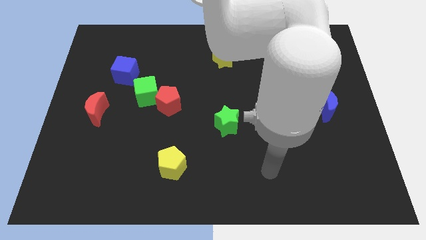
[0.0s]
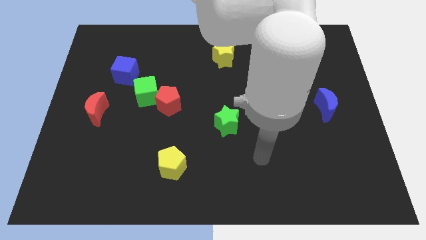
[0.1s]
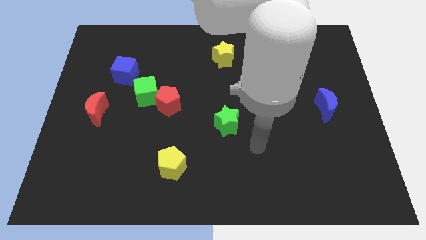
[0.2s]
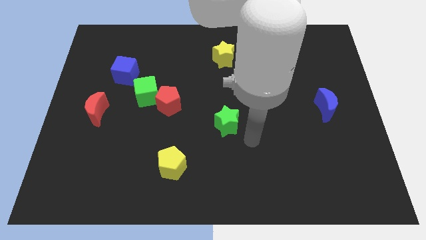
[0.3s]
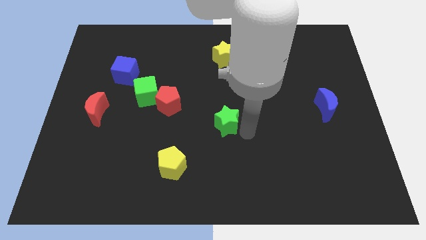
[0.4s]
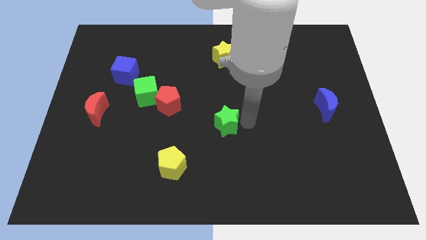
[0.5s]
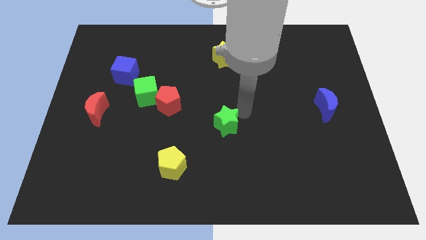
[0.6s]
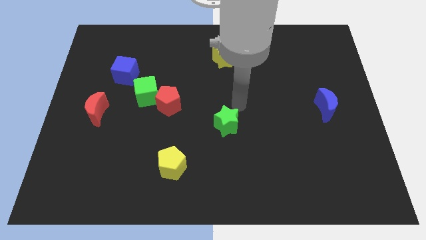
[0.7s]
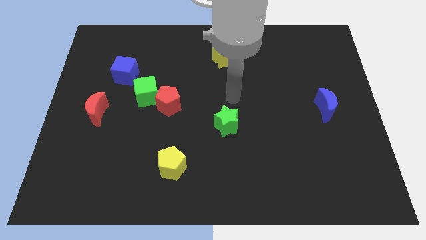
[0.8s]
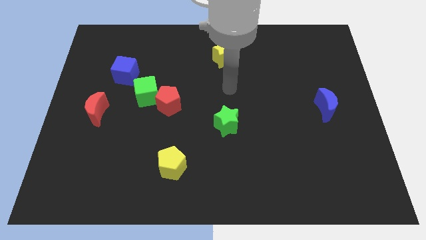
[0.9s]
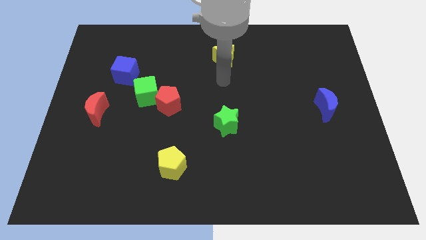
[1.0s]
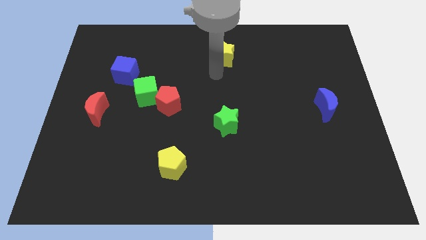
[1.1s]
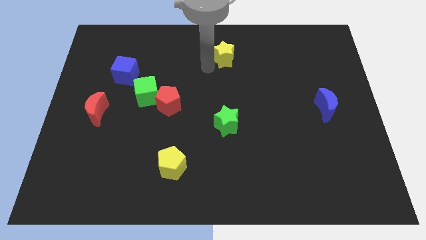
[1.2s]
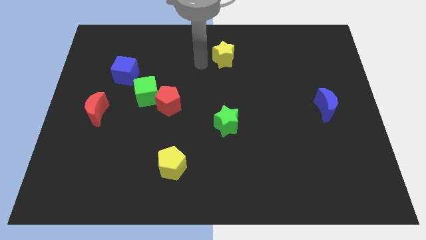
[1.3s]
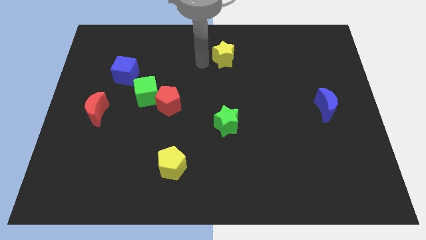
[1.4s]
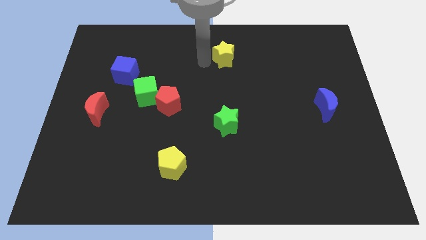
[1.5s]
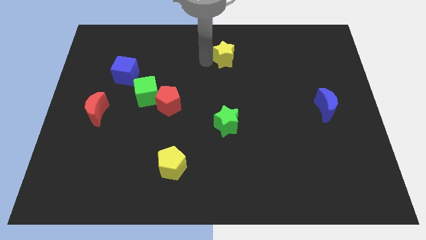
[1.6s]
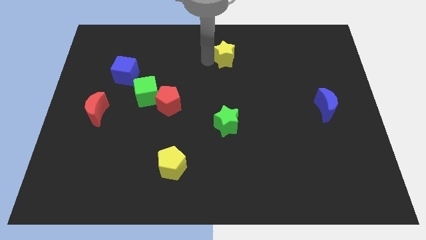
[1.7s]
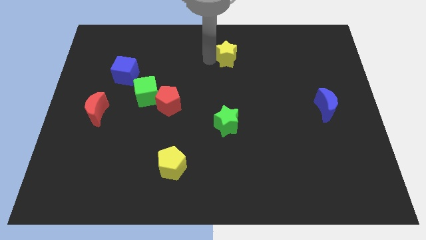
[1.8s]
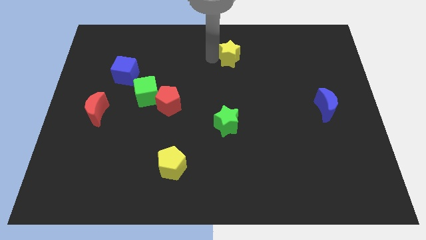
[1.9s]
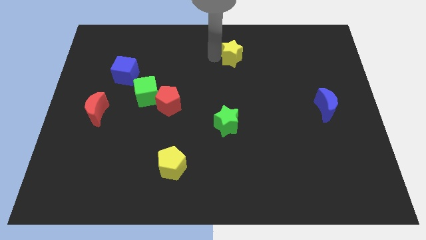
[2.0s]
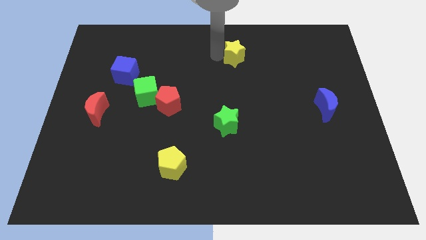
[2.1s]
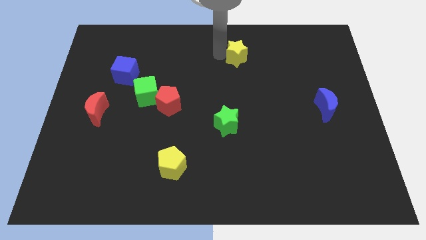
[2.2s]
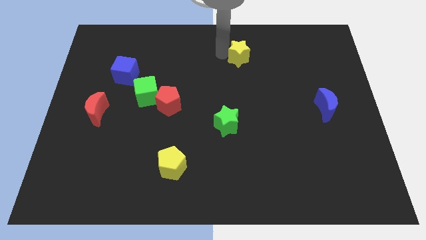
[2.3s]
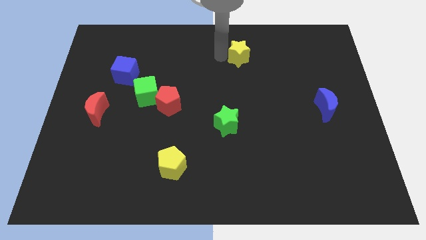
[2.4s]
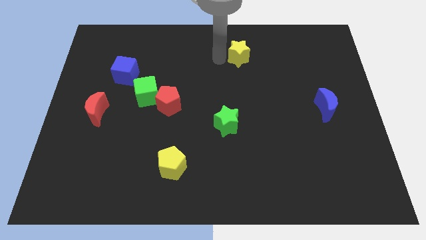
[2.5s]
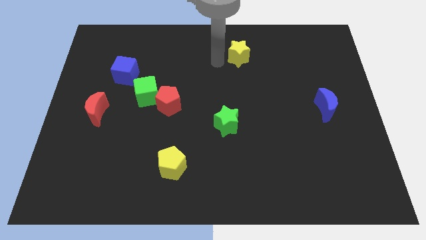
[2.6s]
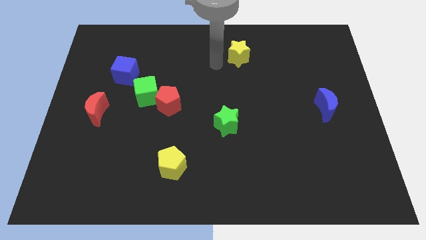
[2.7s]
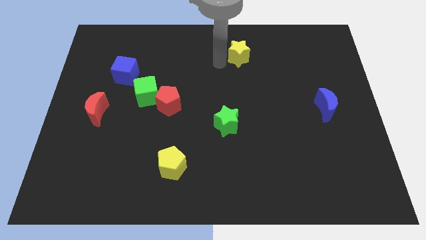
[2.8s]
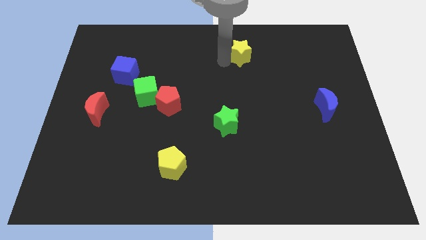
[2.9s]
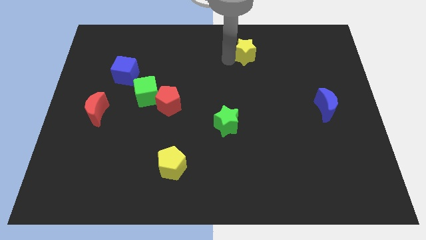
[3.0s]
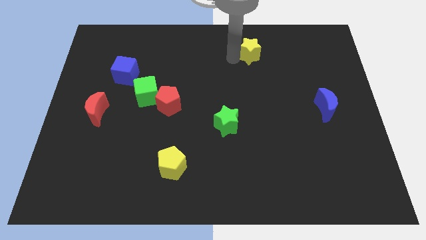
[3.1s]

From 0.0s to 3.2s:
slide the yellow star right somewhat

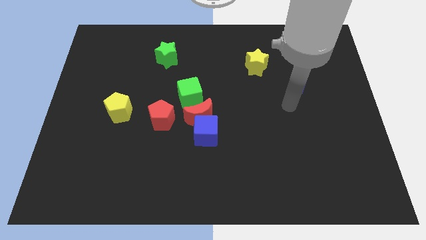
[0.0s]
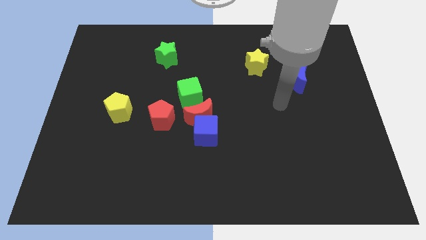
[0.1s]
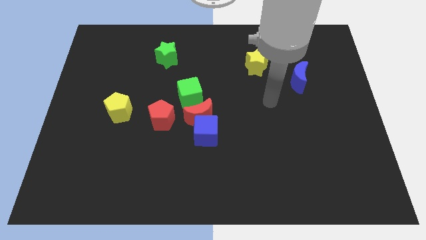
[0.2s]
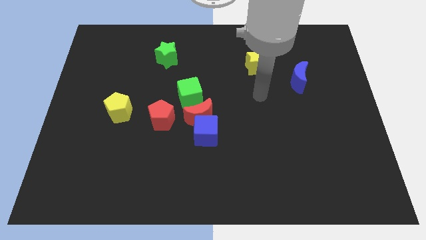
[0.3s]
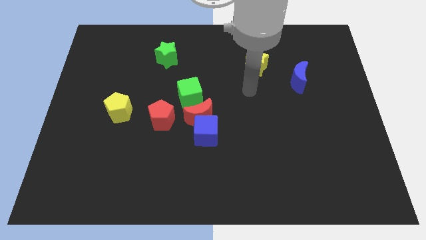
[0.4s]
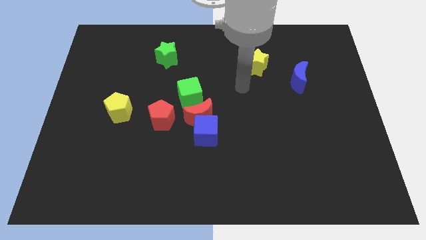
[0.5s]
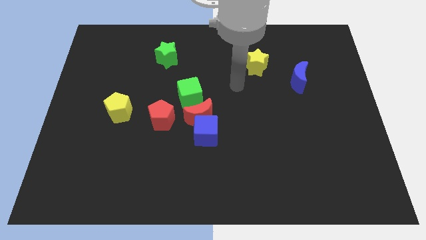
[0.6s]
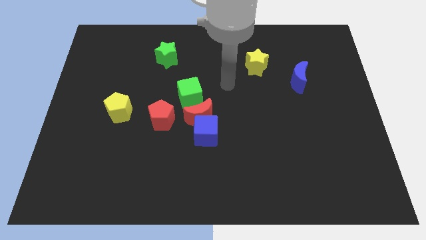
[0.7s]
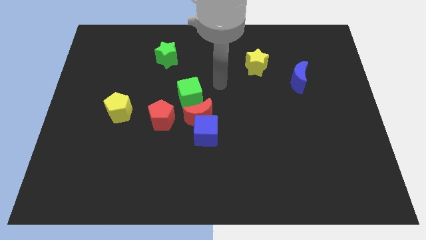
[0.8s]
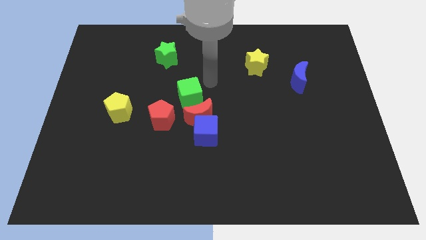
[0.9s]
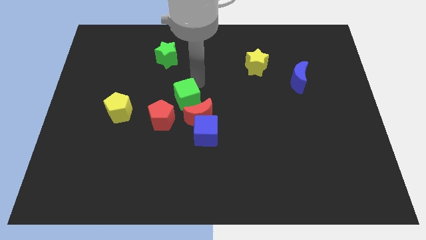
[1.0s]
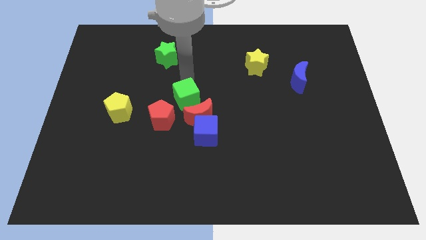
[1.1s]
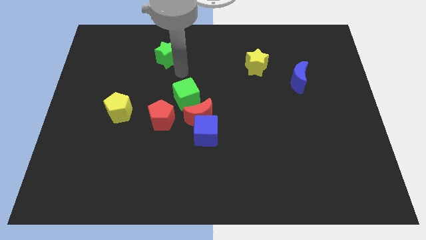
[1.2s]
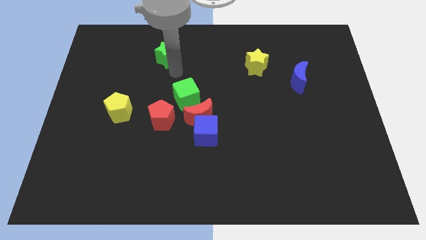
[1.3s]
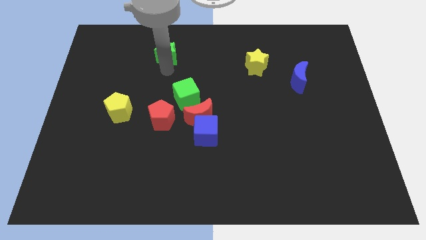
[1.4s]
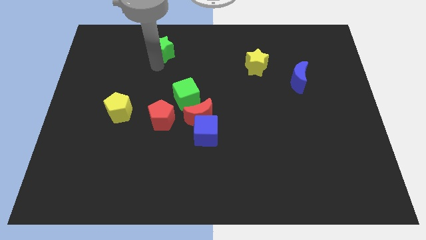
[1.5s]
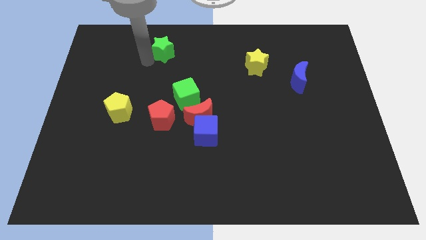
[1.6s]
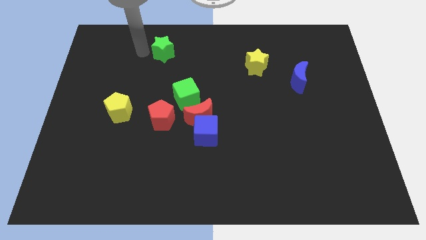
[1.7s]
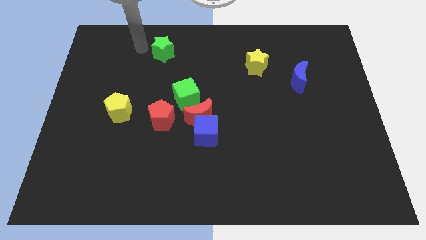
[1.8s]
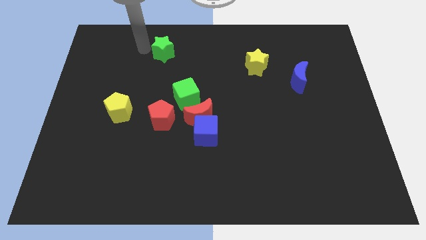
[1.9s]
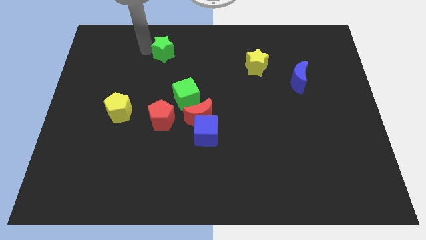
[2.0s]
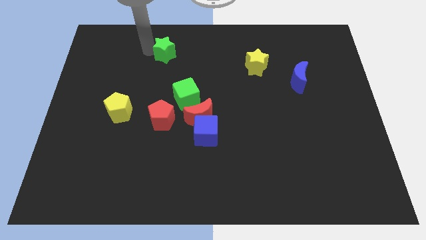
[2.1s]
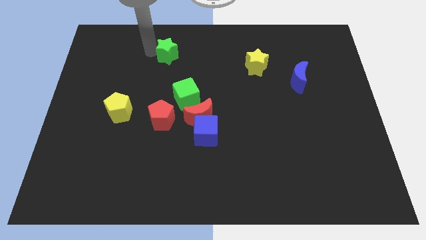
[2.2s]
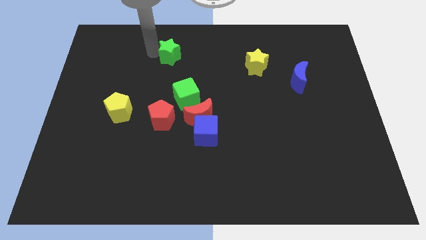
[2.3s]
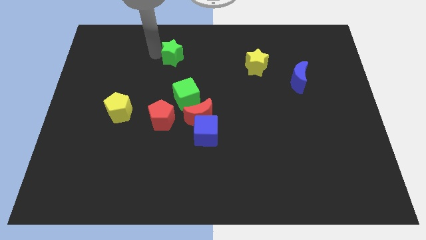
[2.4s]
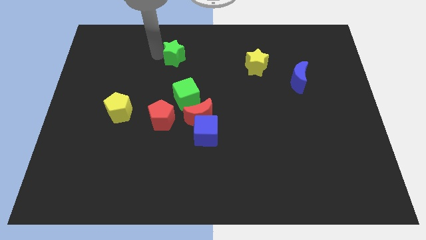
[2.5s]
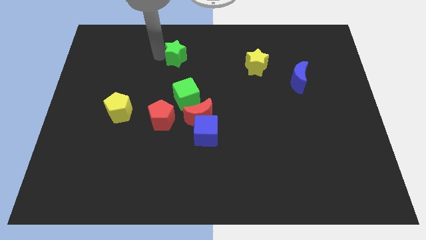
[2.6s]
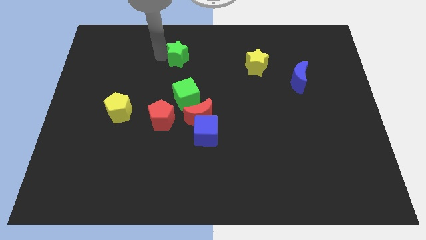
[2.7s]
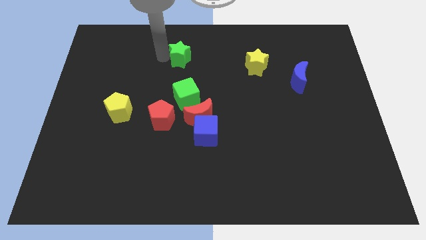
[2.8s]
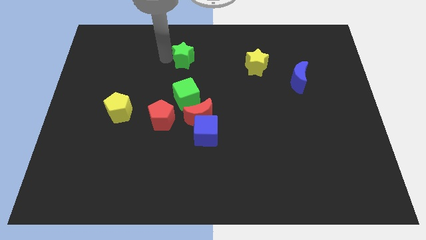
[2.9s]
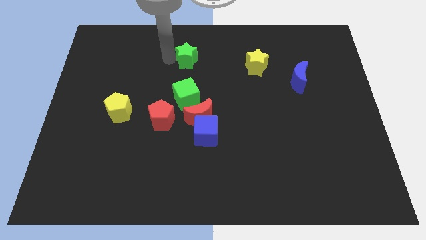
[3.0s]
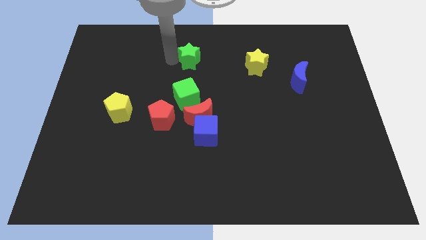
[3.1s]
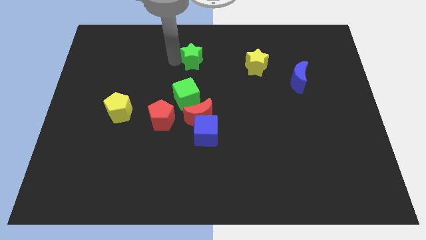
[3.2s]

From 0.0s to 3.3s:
slightly slide the green star right

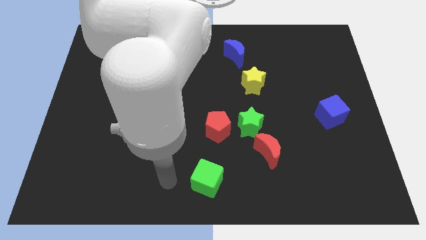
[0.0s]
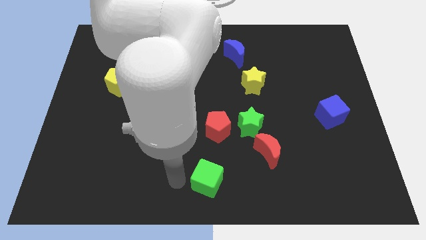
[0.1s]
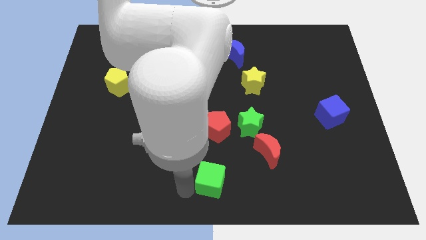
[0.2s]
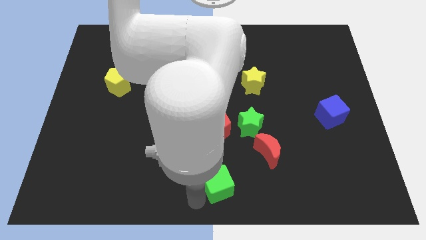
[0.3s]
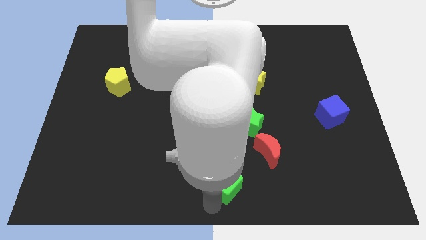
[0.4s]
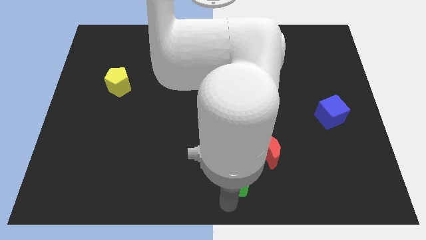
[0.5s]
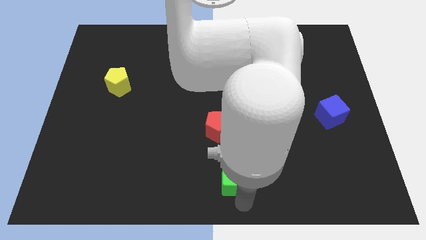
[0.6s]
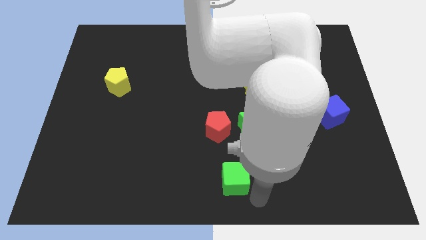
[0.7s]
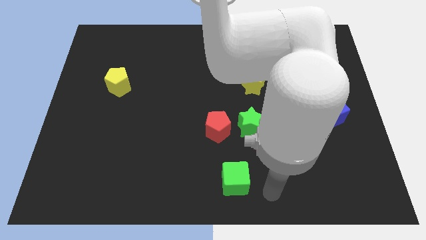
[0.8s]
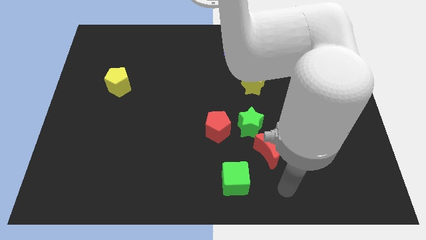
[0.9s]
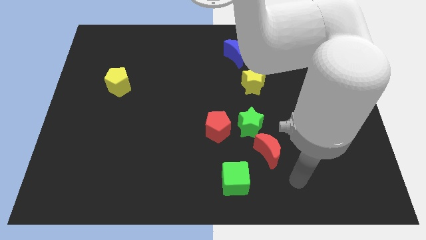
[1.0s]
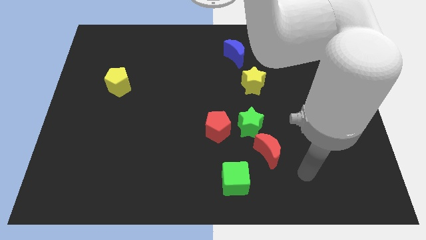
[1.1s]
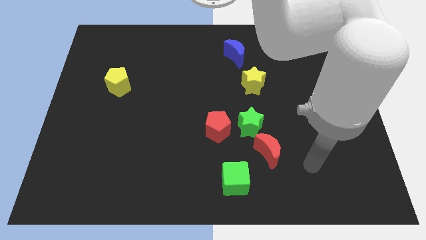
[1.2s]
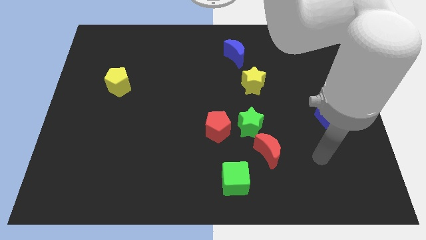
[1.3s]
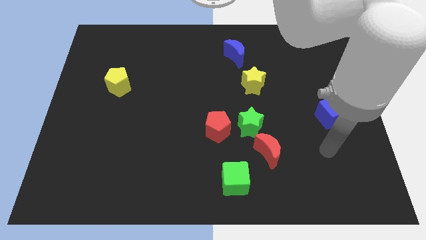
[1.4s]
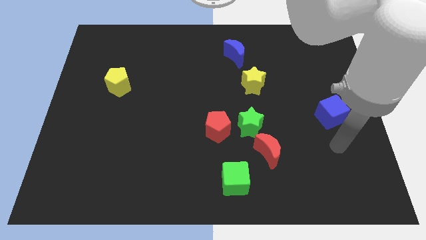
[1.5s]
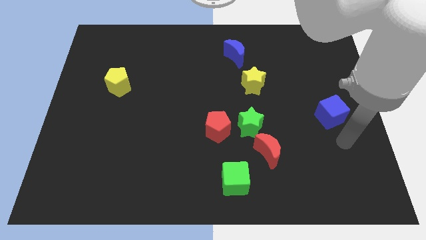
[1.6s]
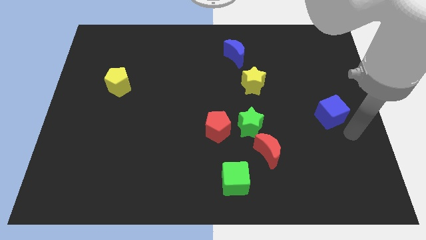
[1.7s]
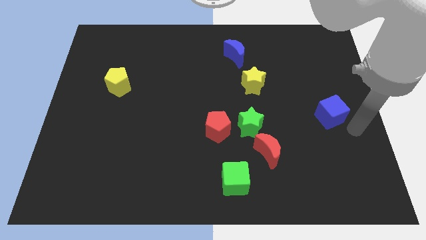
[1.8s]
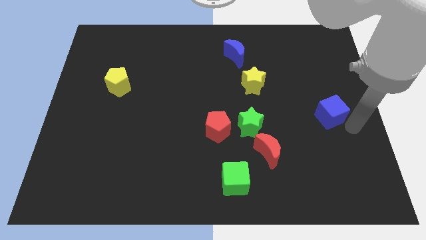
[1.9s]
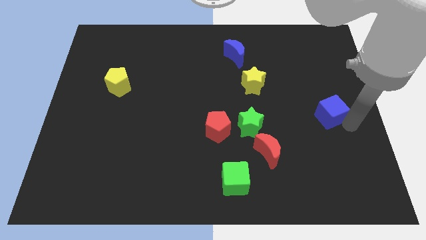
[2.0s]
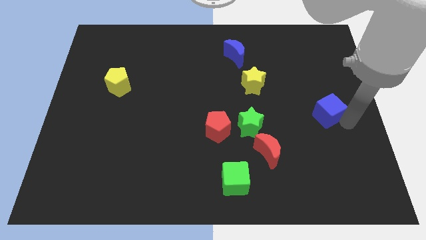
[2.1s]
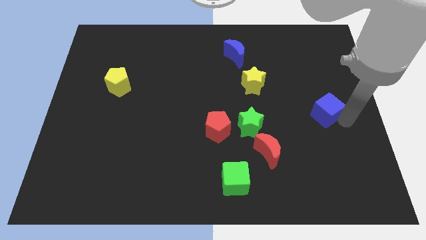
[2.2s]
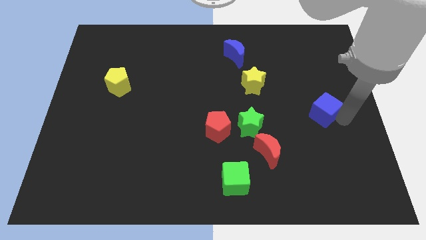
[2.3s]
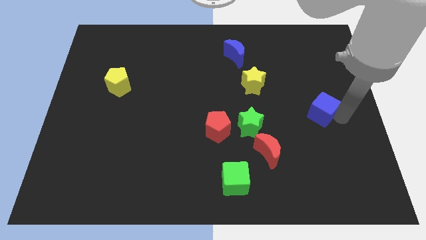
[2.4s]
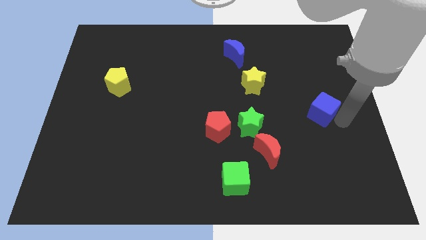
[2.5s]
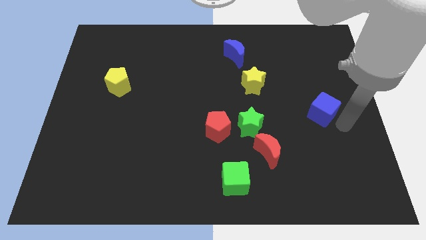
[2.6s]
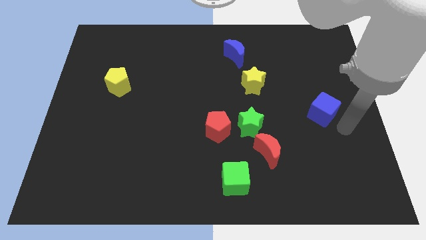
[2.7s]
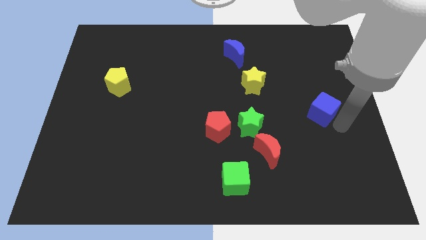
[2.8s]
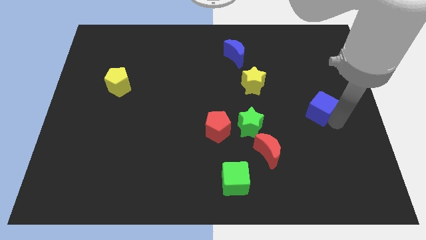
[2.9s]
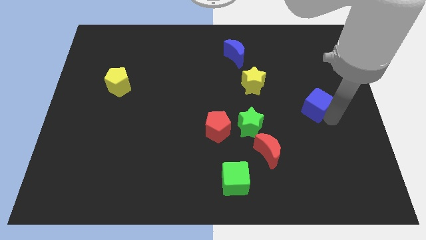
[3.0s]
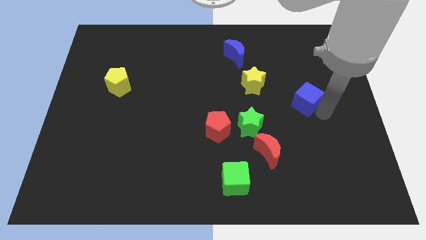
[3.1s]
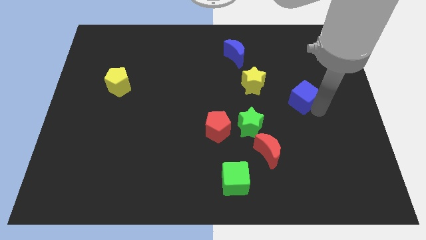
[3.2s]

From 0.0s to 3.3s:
slide the blue cube somewhat diagonally up and left
